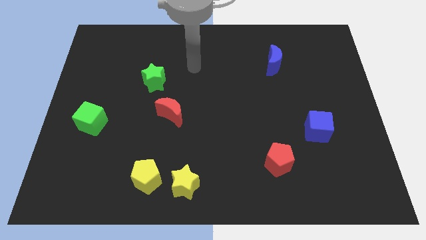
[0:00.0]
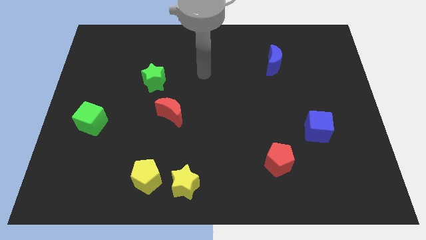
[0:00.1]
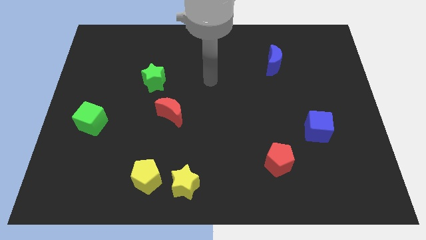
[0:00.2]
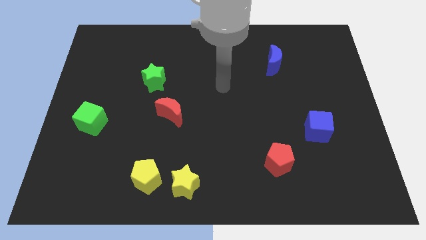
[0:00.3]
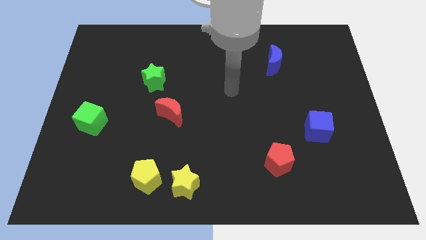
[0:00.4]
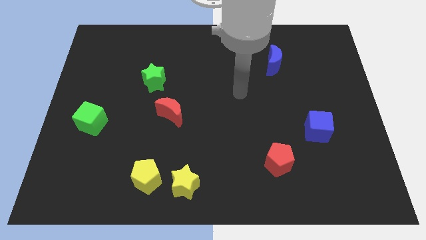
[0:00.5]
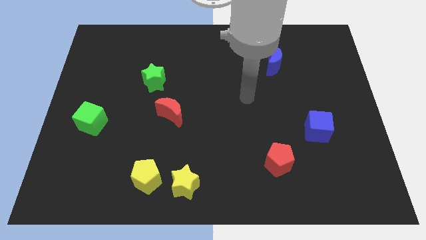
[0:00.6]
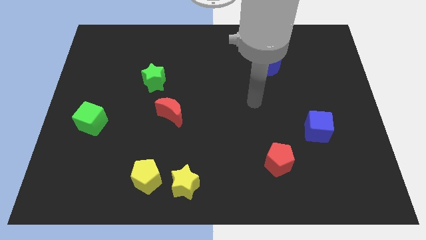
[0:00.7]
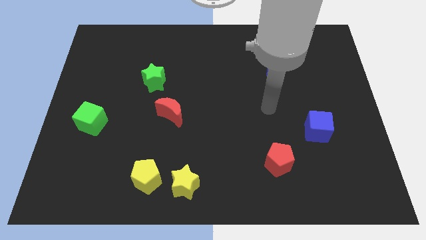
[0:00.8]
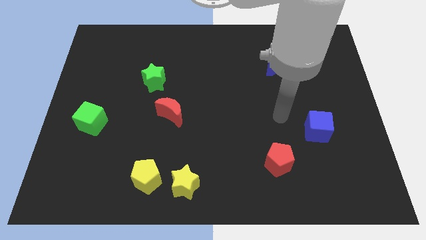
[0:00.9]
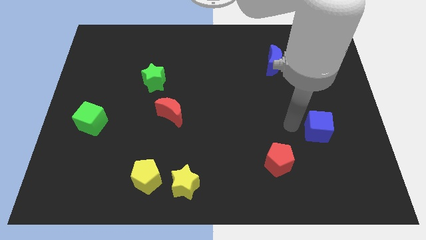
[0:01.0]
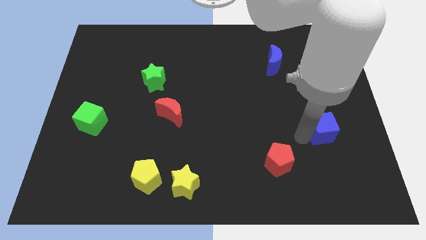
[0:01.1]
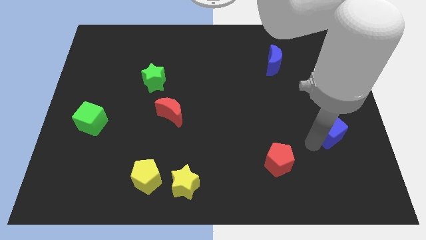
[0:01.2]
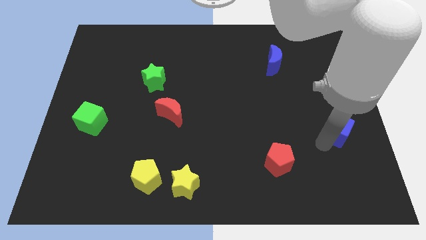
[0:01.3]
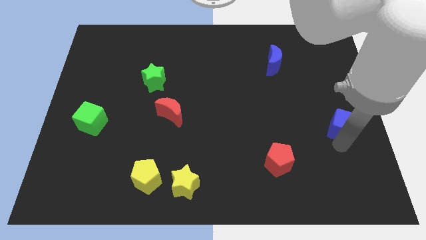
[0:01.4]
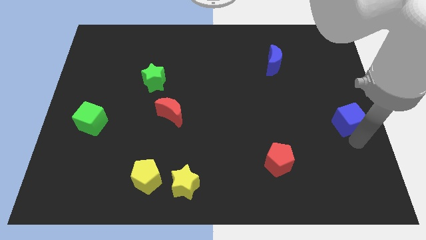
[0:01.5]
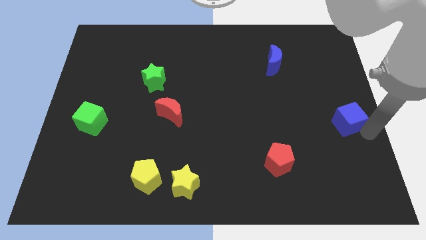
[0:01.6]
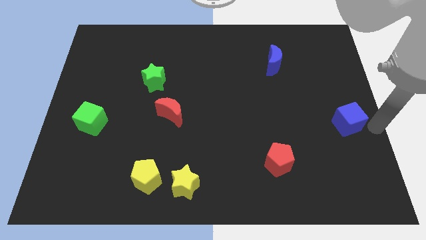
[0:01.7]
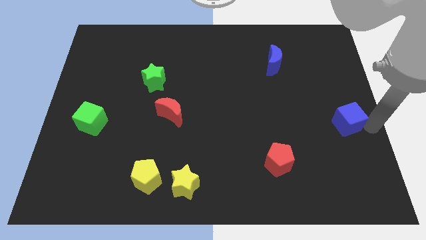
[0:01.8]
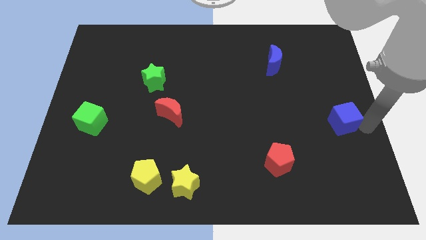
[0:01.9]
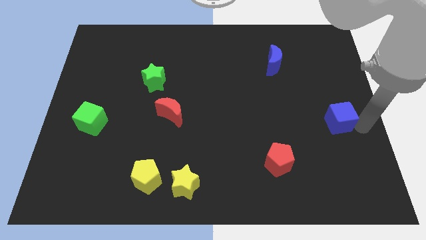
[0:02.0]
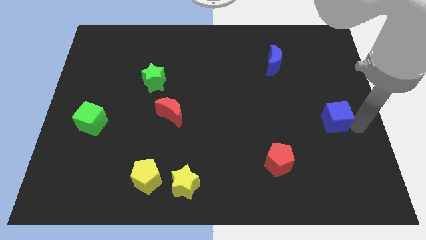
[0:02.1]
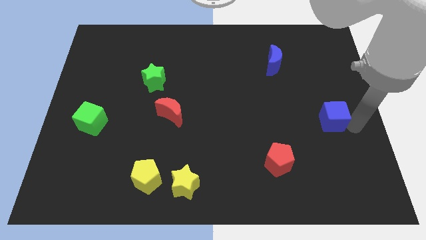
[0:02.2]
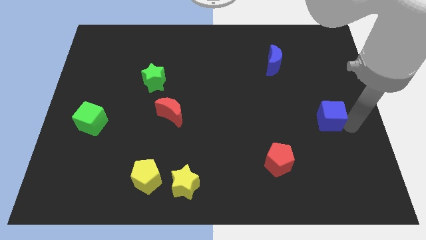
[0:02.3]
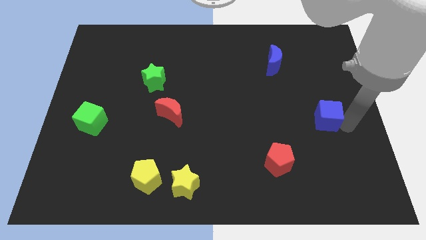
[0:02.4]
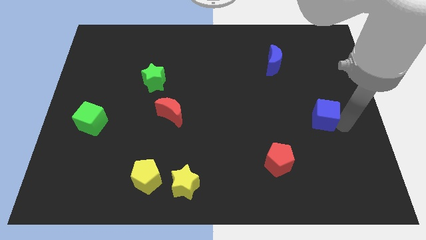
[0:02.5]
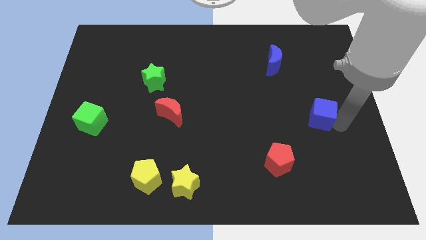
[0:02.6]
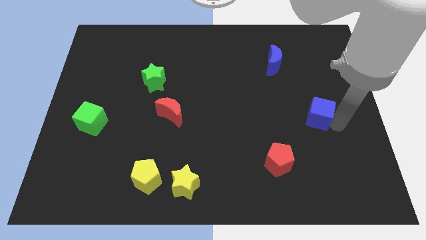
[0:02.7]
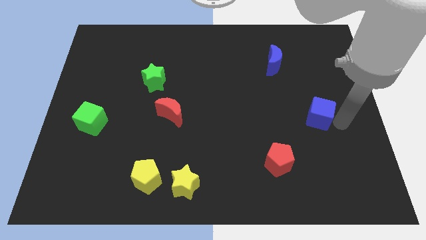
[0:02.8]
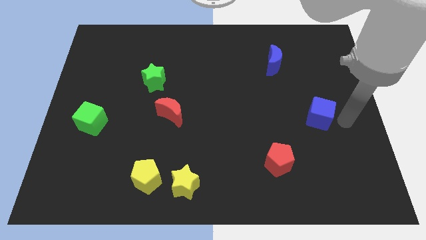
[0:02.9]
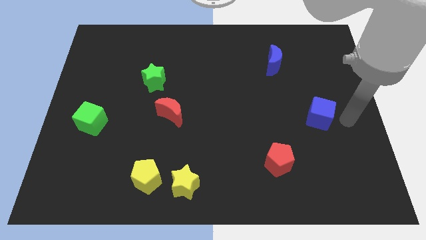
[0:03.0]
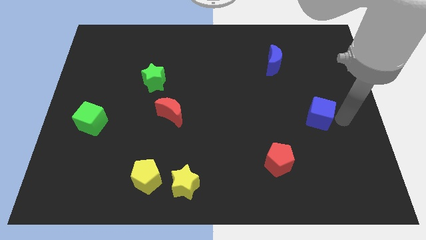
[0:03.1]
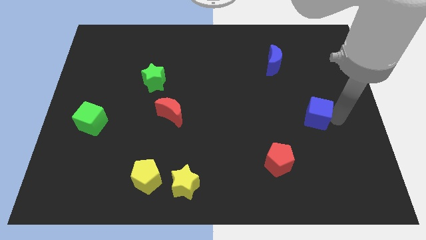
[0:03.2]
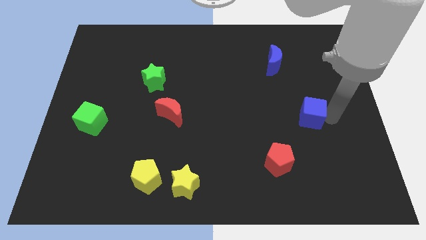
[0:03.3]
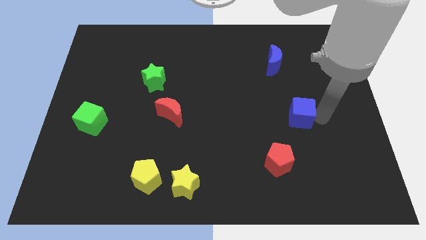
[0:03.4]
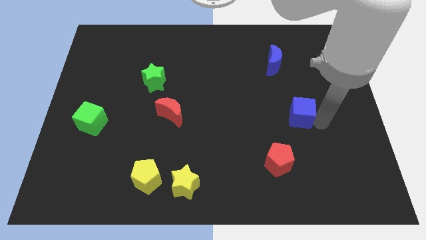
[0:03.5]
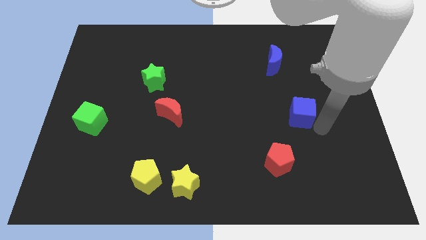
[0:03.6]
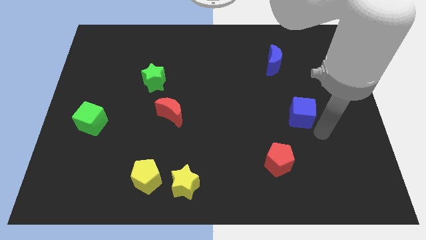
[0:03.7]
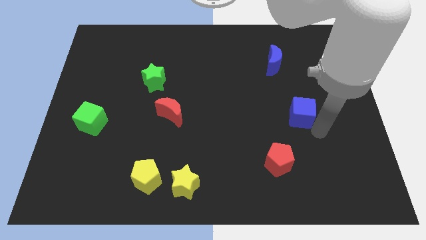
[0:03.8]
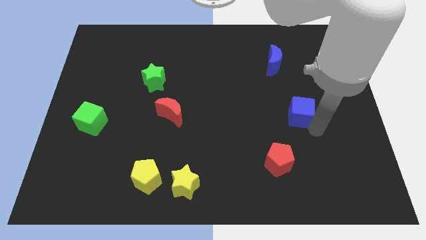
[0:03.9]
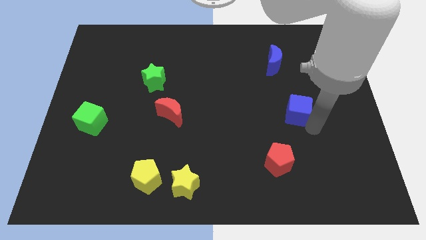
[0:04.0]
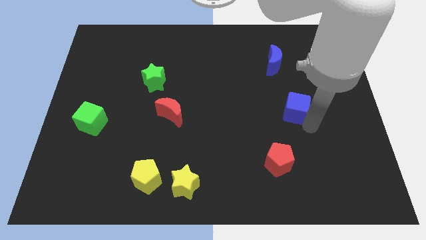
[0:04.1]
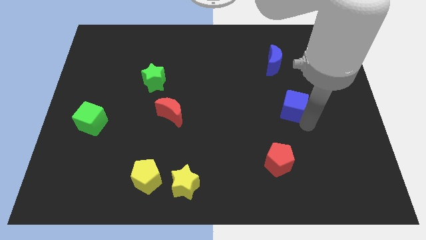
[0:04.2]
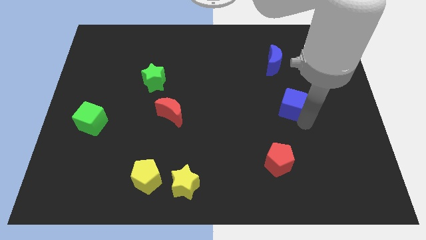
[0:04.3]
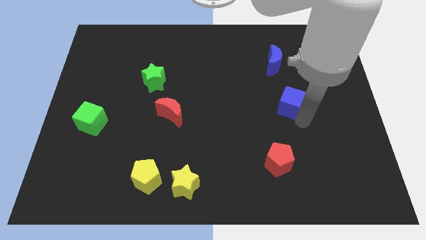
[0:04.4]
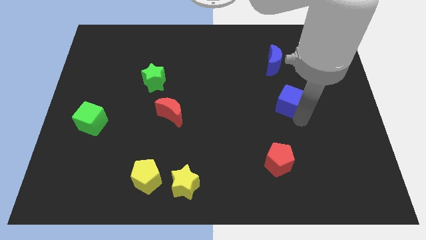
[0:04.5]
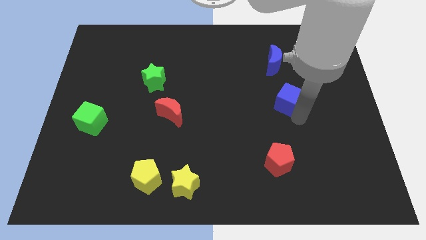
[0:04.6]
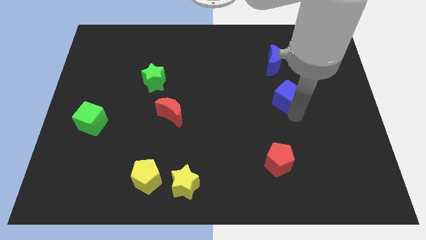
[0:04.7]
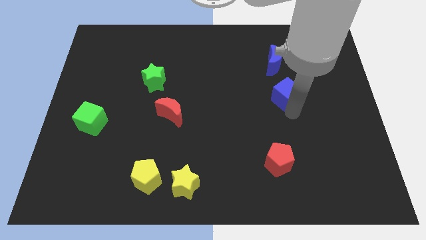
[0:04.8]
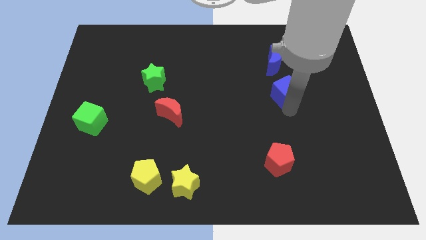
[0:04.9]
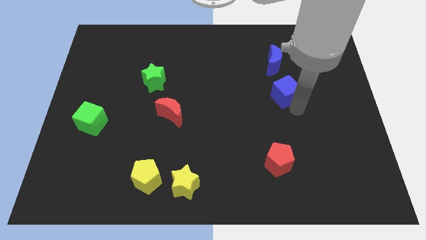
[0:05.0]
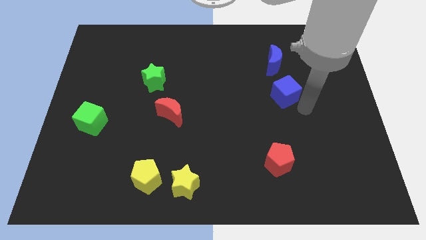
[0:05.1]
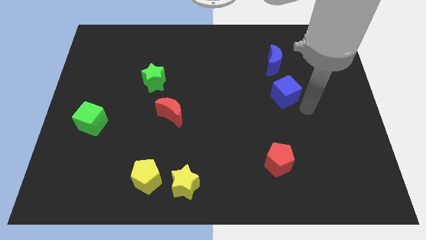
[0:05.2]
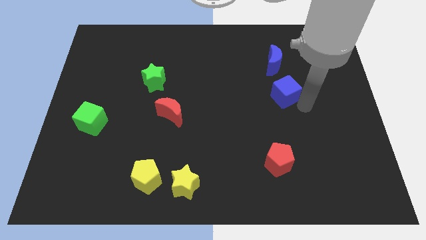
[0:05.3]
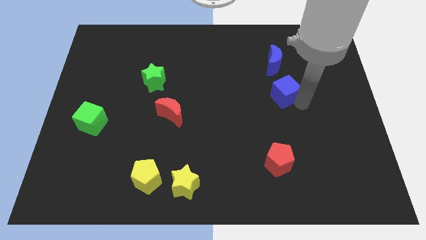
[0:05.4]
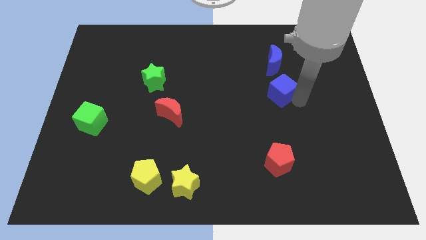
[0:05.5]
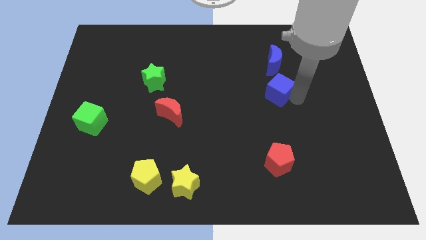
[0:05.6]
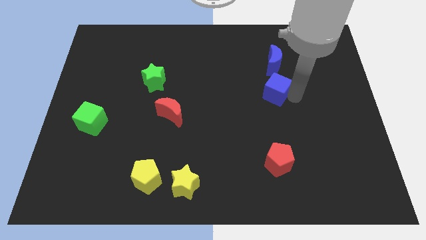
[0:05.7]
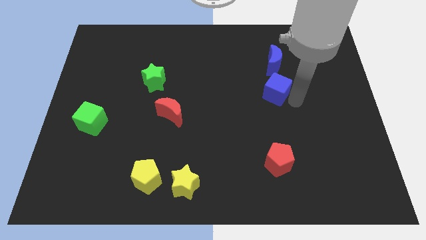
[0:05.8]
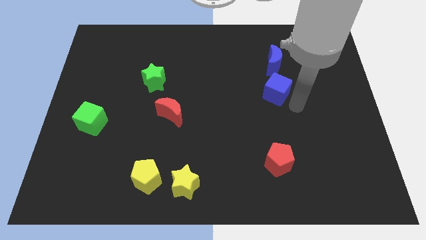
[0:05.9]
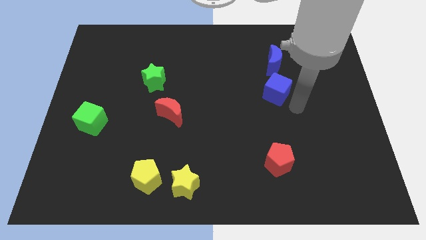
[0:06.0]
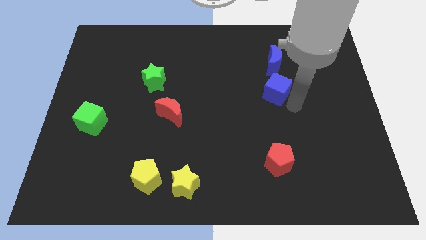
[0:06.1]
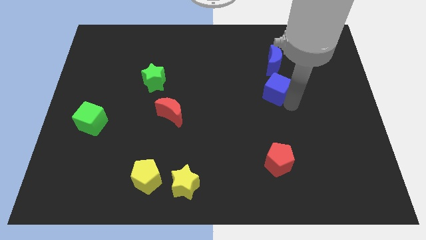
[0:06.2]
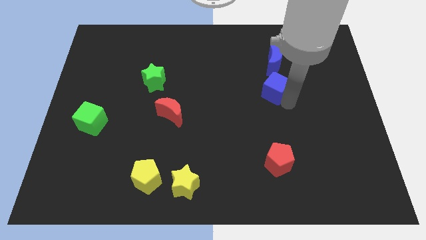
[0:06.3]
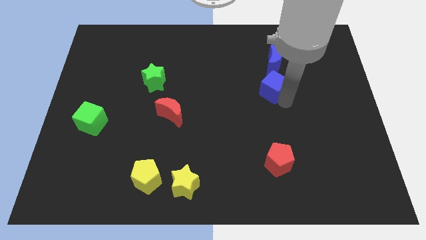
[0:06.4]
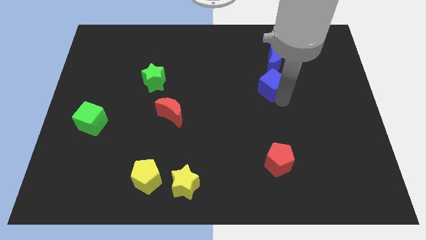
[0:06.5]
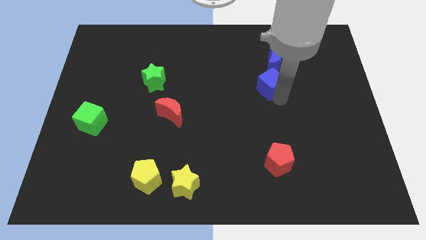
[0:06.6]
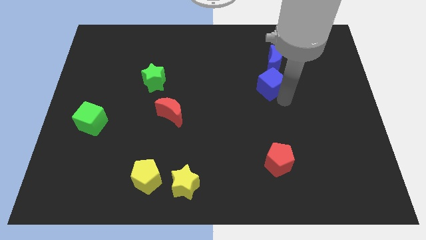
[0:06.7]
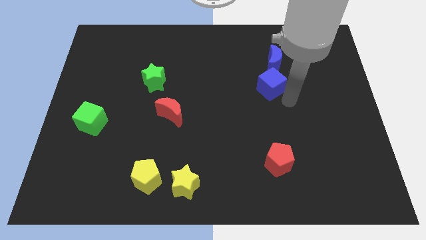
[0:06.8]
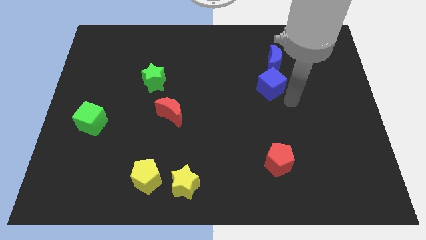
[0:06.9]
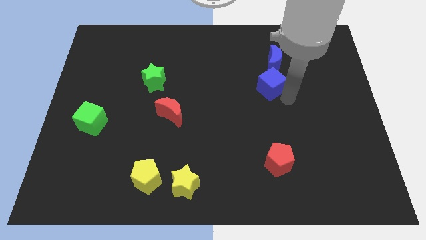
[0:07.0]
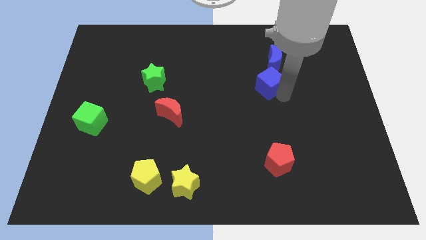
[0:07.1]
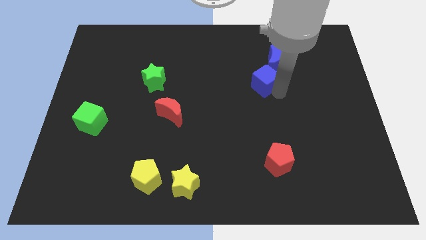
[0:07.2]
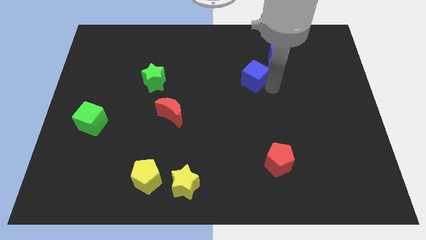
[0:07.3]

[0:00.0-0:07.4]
move the blue cube upwards and left

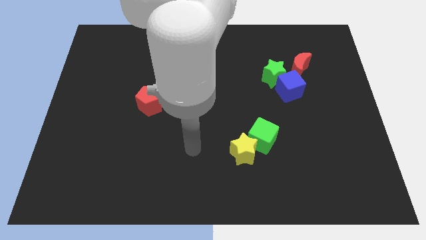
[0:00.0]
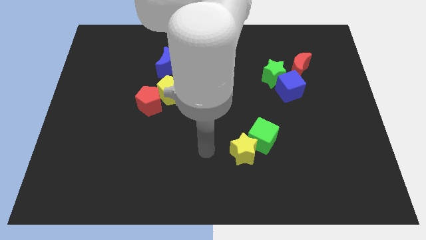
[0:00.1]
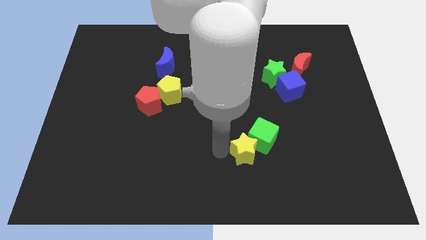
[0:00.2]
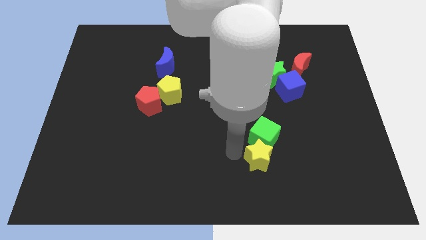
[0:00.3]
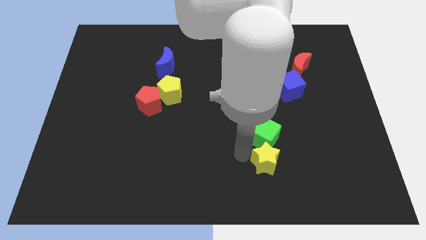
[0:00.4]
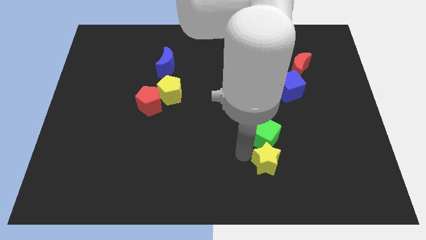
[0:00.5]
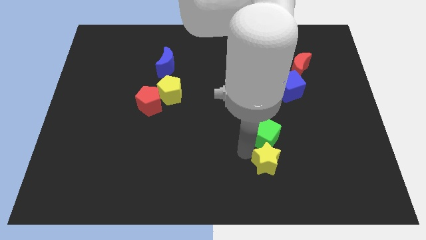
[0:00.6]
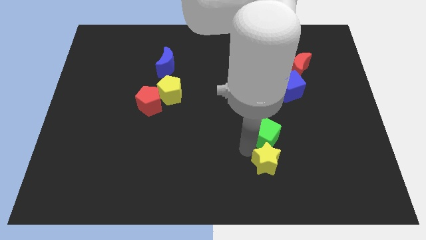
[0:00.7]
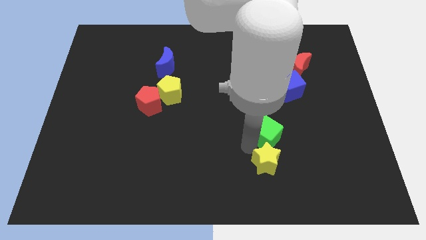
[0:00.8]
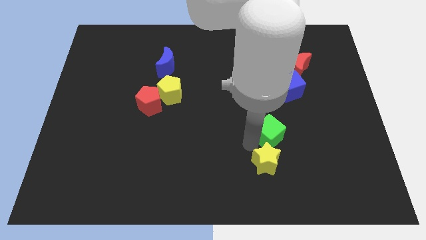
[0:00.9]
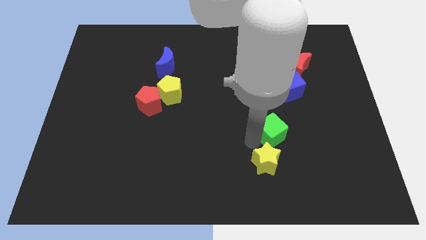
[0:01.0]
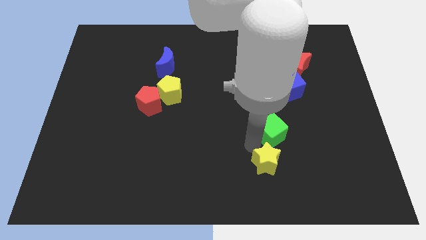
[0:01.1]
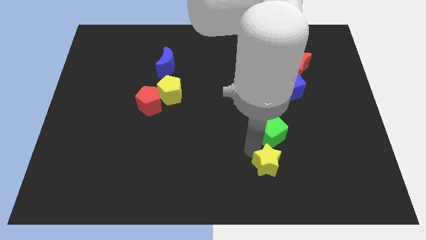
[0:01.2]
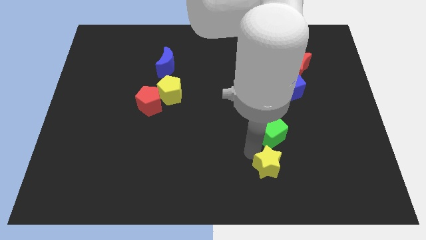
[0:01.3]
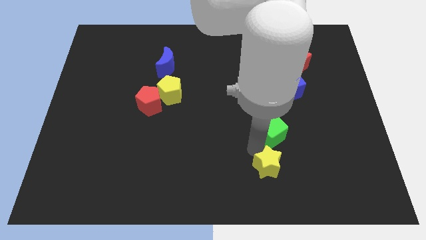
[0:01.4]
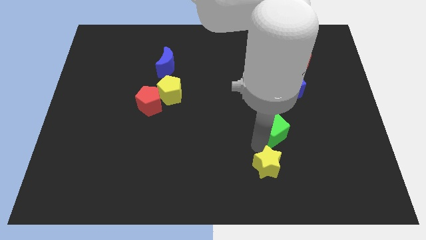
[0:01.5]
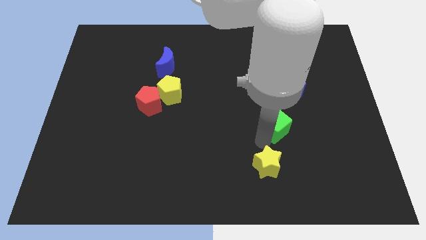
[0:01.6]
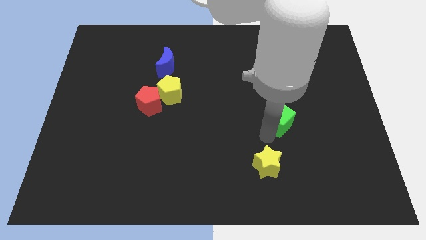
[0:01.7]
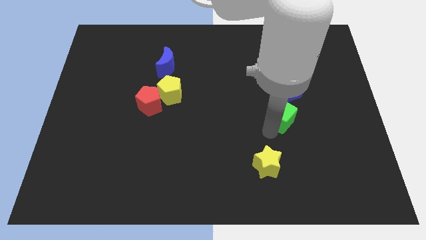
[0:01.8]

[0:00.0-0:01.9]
slightly push the green cube diagonally up and right
